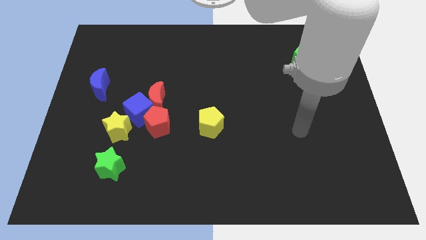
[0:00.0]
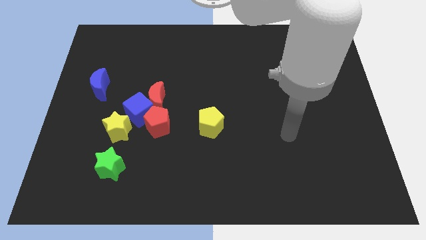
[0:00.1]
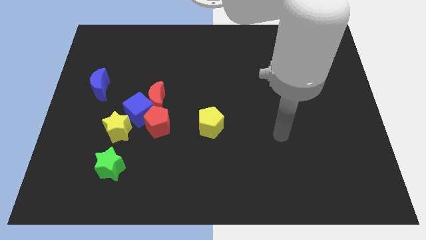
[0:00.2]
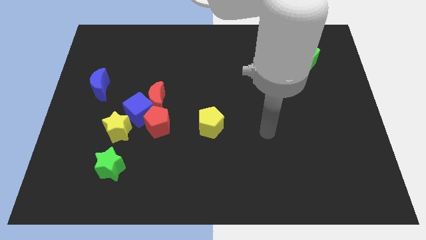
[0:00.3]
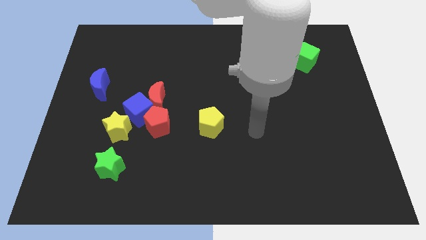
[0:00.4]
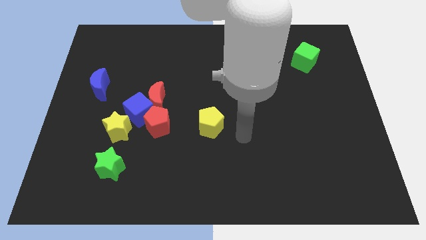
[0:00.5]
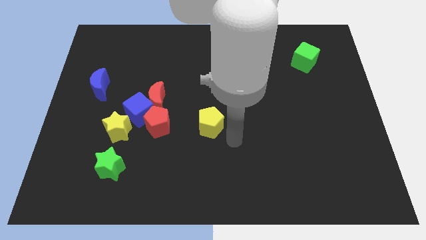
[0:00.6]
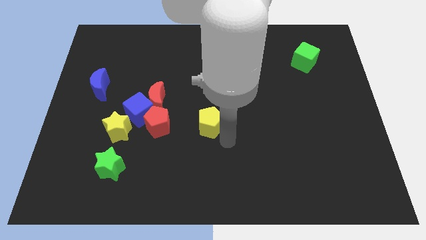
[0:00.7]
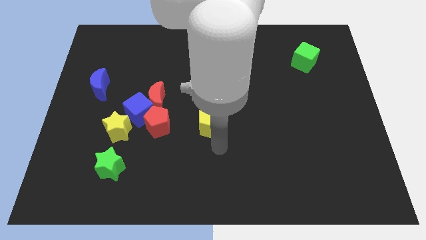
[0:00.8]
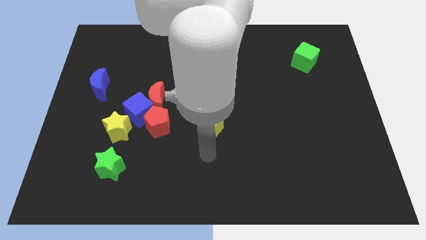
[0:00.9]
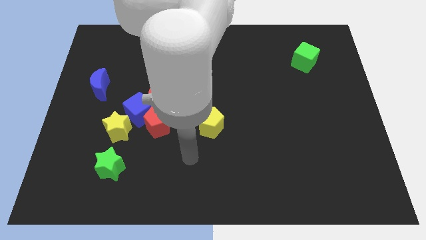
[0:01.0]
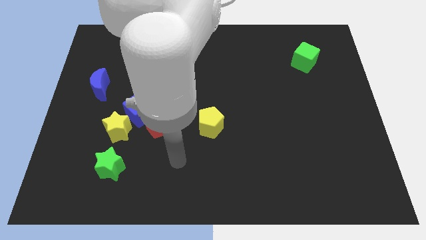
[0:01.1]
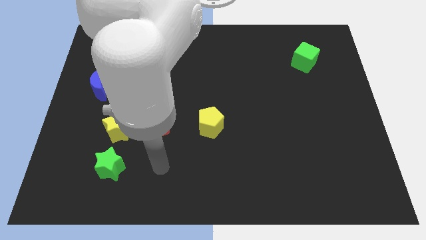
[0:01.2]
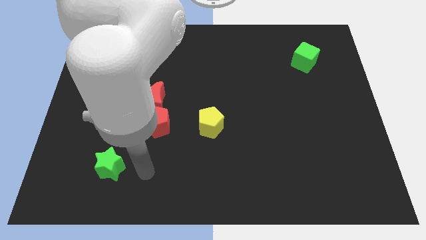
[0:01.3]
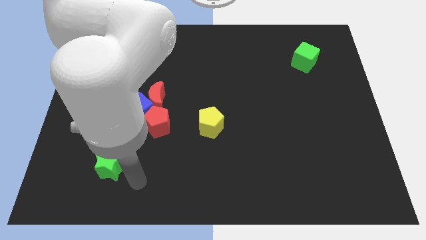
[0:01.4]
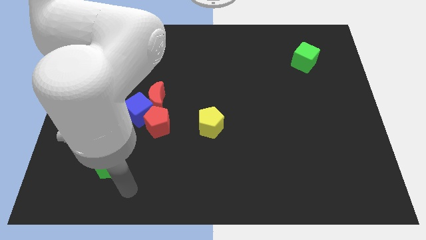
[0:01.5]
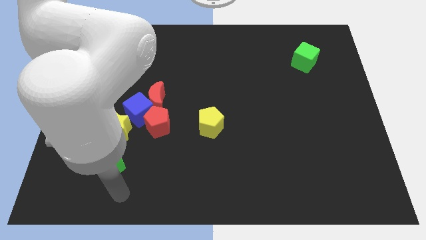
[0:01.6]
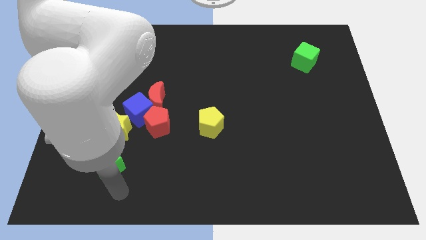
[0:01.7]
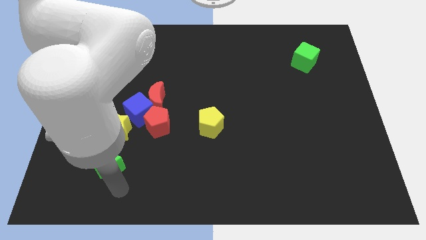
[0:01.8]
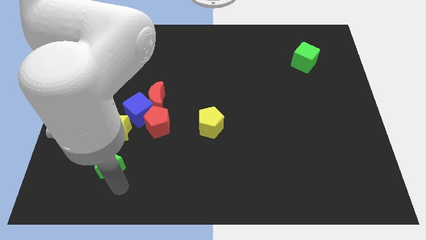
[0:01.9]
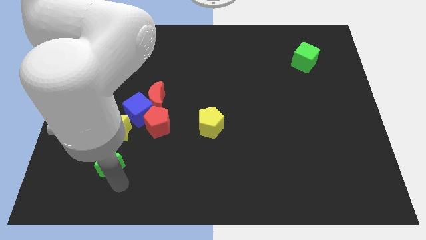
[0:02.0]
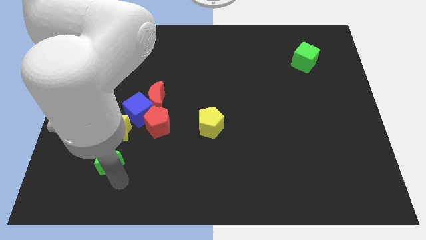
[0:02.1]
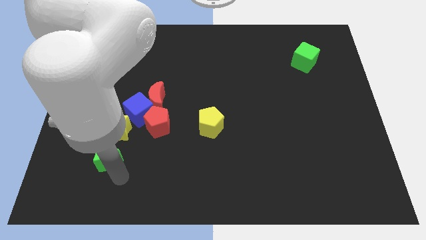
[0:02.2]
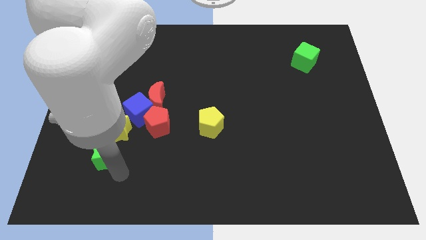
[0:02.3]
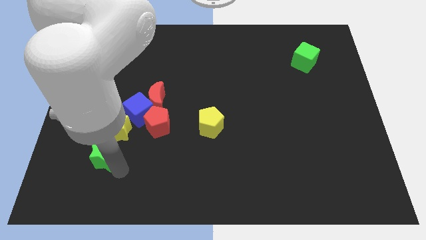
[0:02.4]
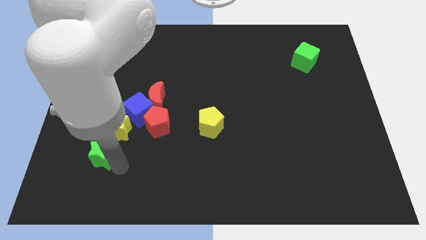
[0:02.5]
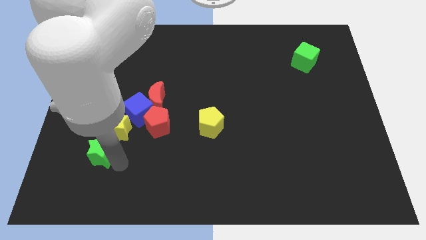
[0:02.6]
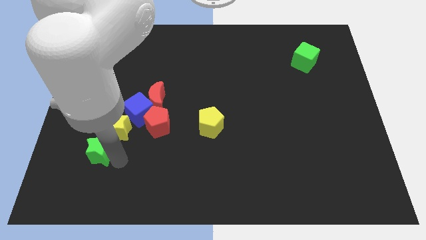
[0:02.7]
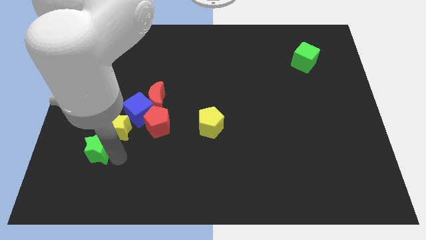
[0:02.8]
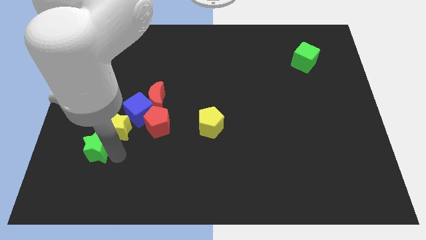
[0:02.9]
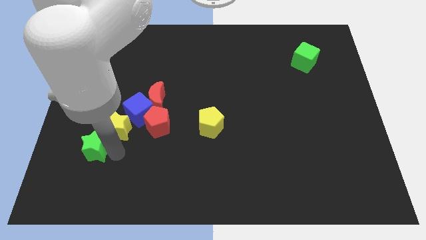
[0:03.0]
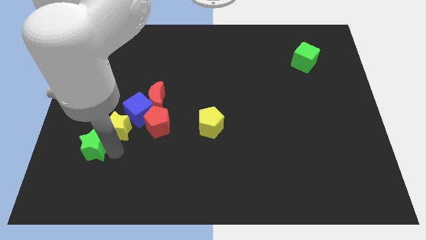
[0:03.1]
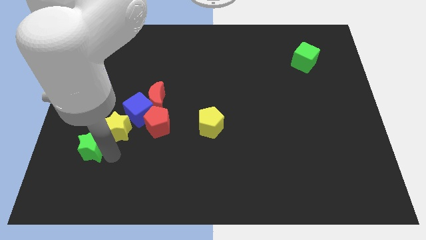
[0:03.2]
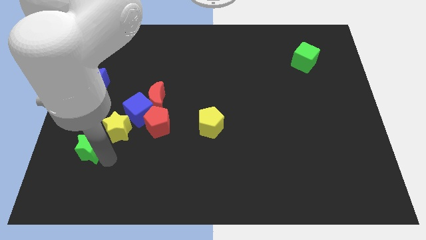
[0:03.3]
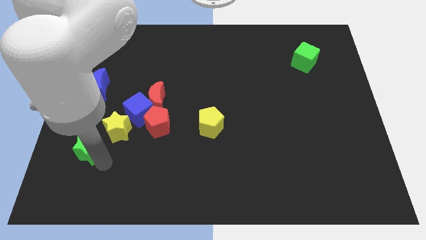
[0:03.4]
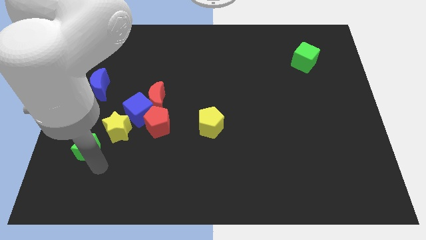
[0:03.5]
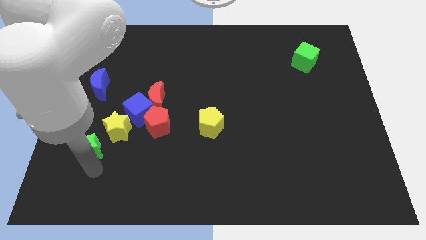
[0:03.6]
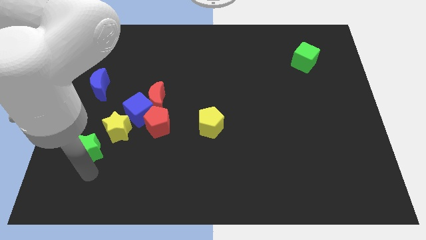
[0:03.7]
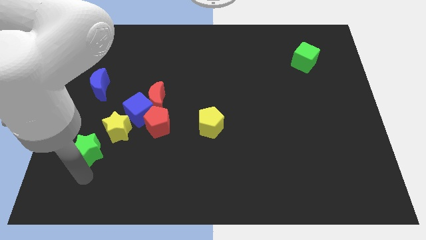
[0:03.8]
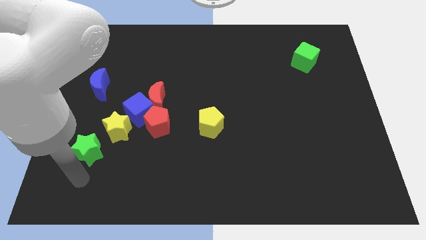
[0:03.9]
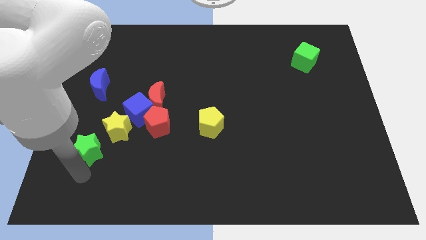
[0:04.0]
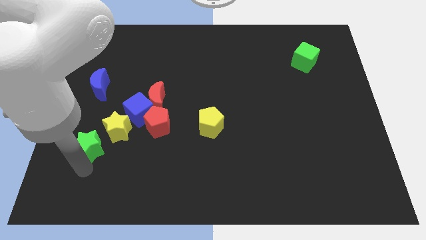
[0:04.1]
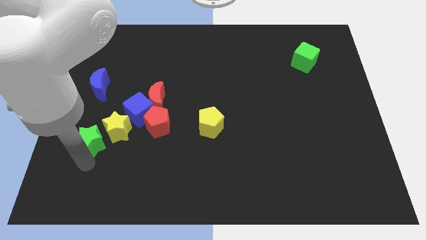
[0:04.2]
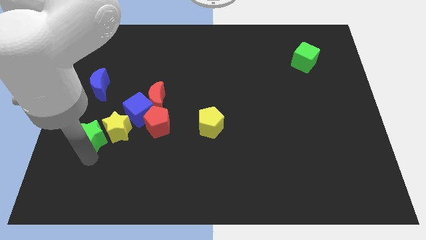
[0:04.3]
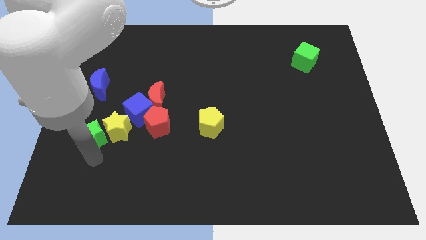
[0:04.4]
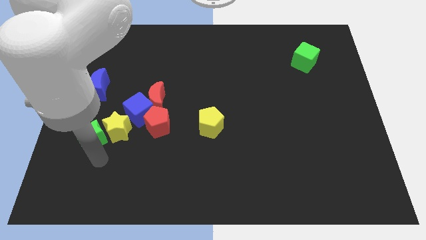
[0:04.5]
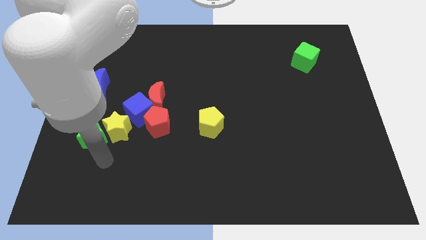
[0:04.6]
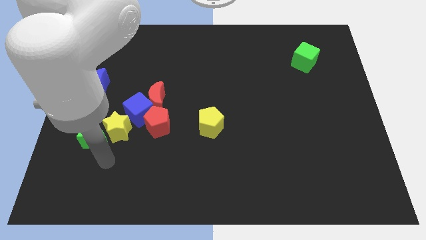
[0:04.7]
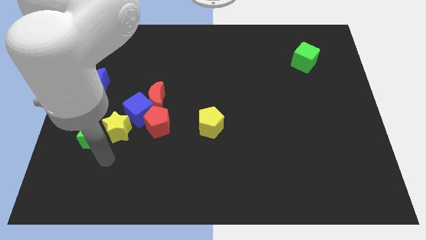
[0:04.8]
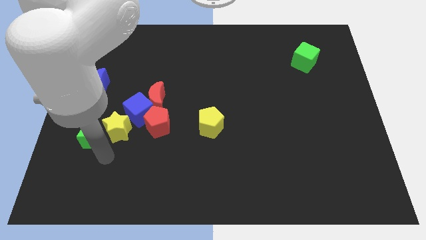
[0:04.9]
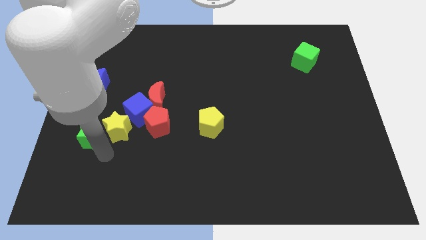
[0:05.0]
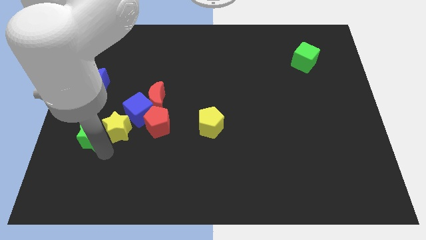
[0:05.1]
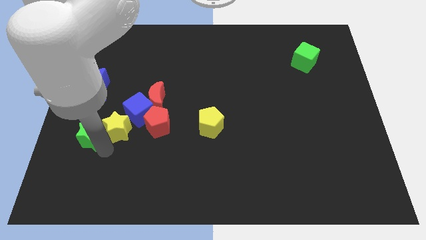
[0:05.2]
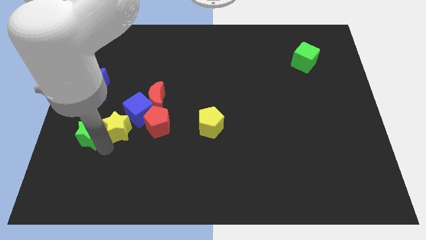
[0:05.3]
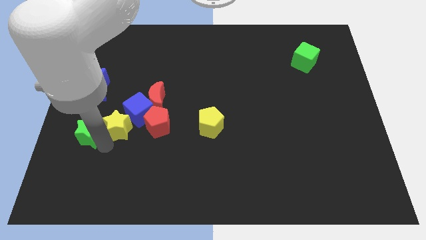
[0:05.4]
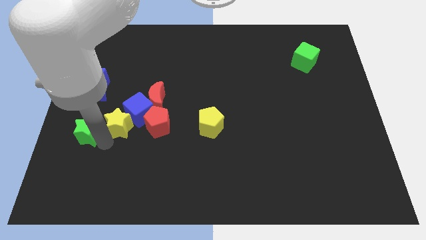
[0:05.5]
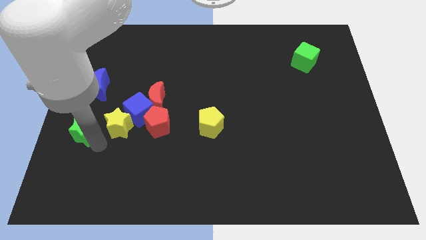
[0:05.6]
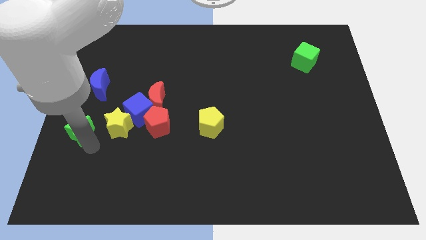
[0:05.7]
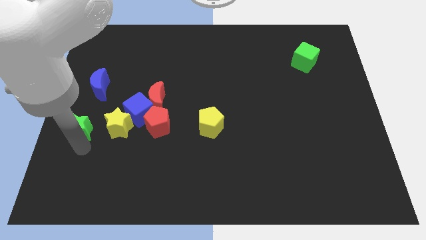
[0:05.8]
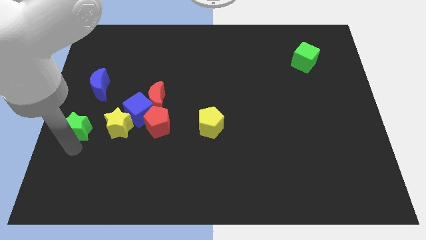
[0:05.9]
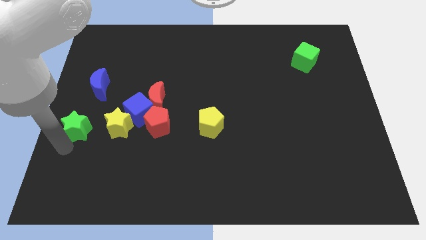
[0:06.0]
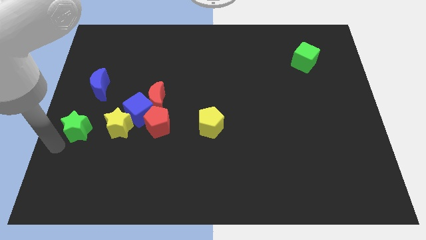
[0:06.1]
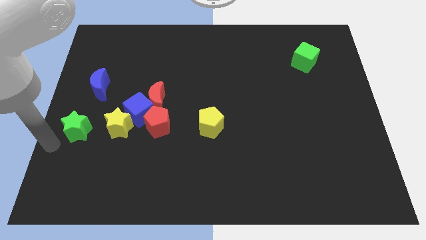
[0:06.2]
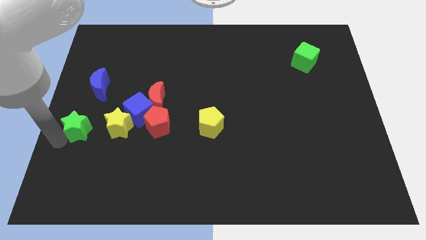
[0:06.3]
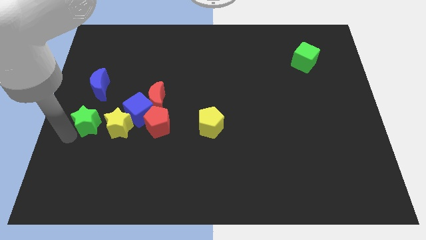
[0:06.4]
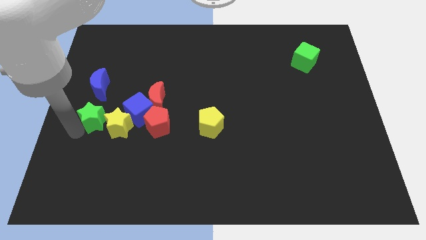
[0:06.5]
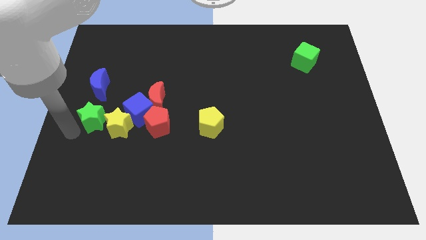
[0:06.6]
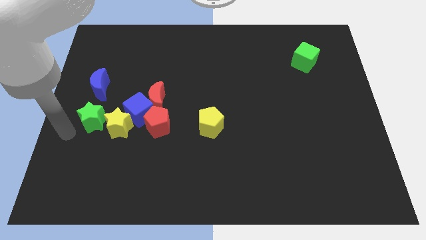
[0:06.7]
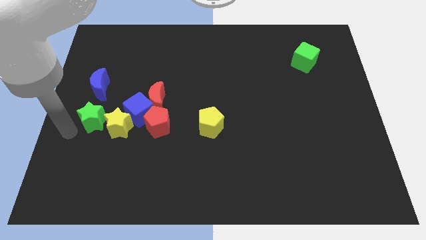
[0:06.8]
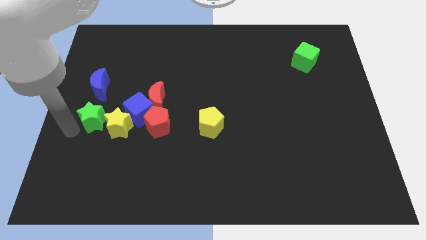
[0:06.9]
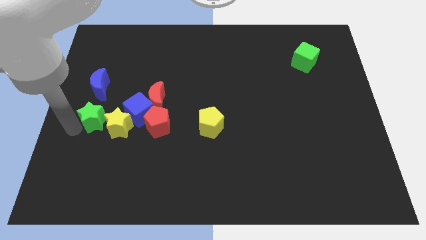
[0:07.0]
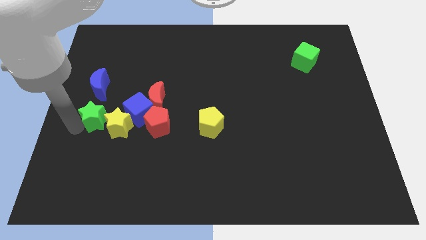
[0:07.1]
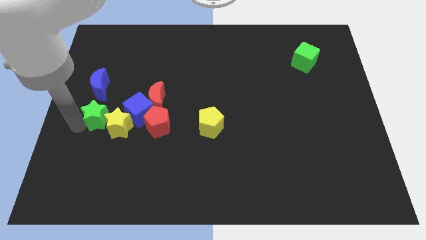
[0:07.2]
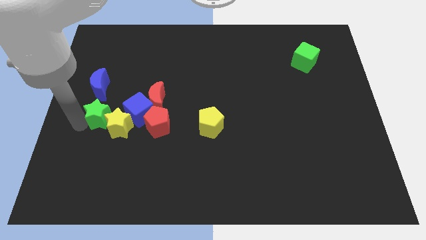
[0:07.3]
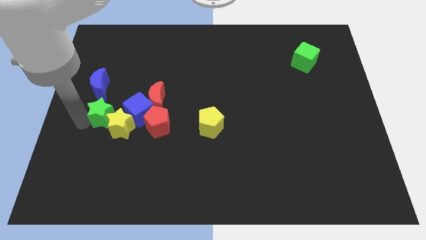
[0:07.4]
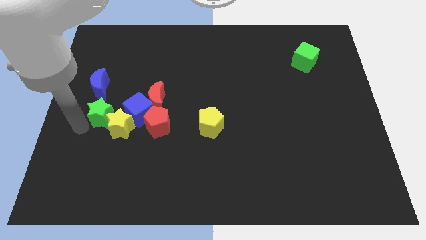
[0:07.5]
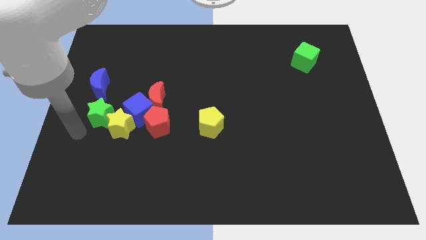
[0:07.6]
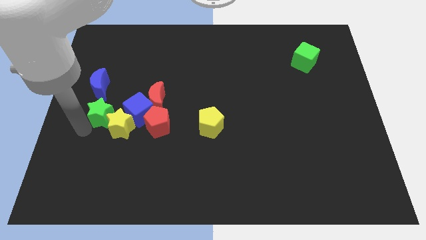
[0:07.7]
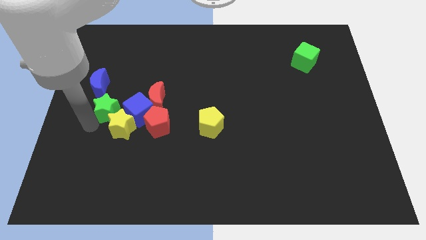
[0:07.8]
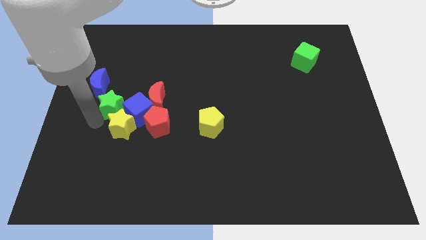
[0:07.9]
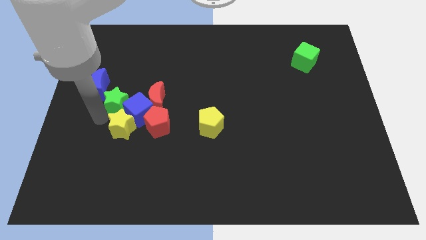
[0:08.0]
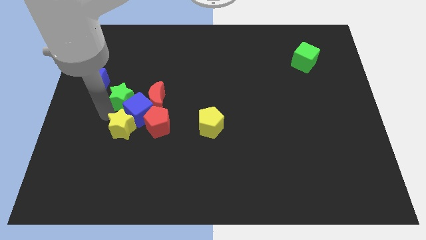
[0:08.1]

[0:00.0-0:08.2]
move the green star just right of the blue moon
